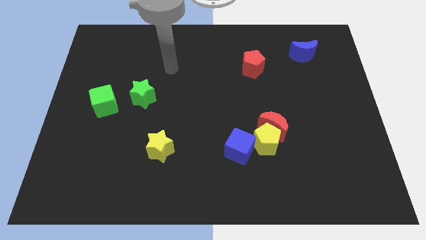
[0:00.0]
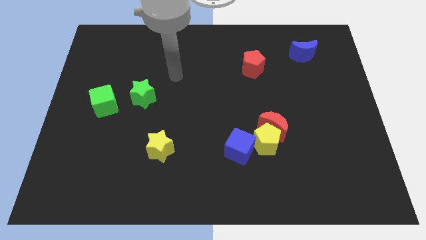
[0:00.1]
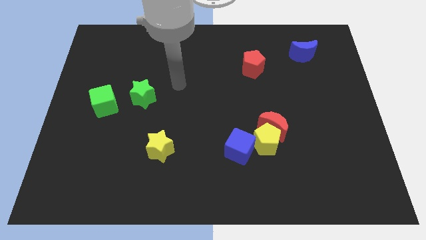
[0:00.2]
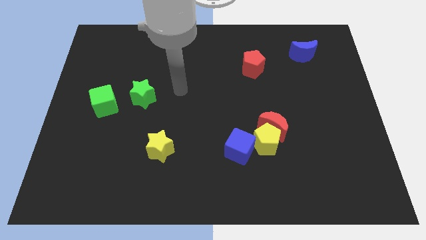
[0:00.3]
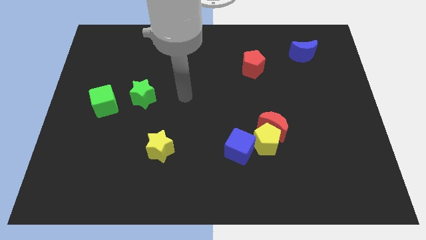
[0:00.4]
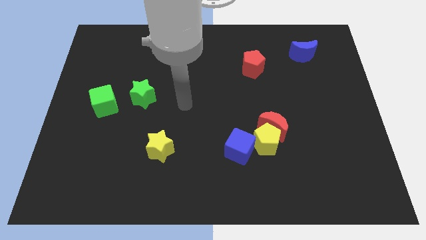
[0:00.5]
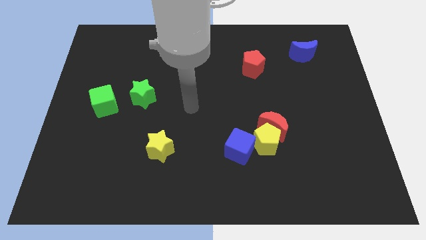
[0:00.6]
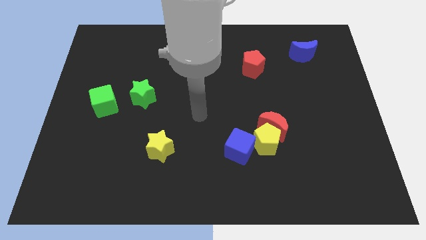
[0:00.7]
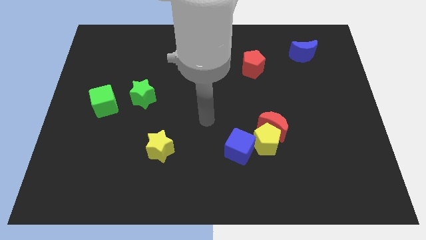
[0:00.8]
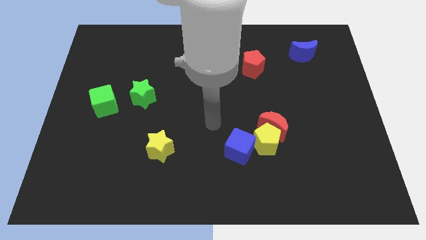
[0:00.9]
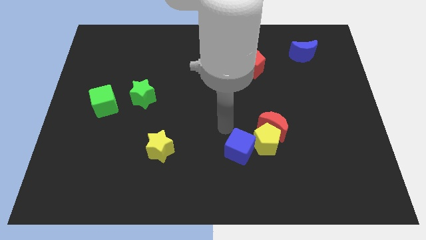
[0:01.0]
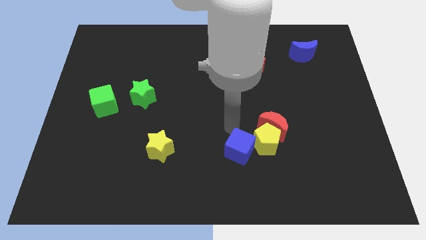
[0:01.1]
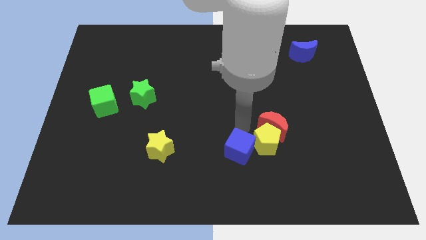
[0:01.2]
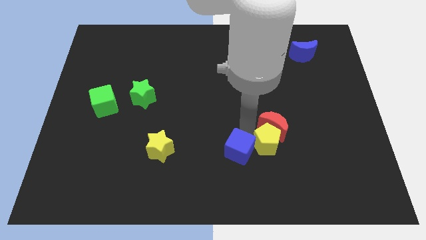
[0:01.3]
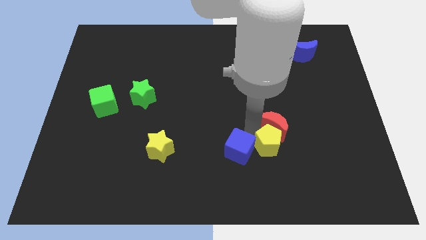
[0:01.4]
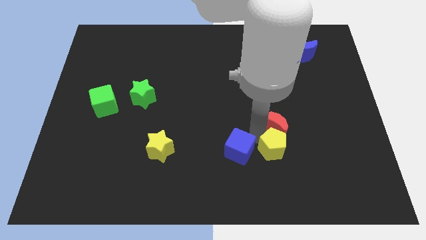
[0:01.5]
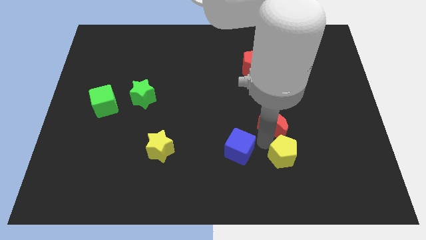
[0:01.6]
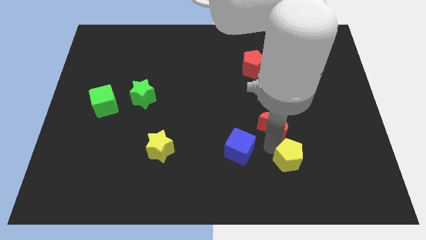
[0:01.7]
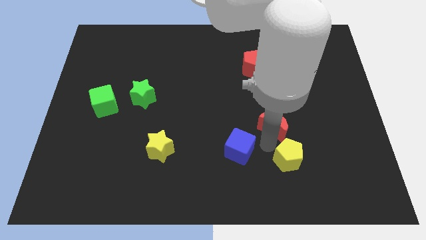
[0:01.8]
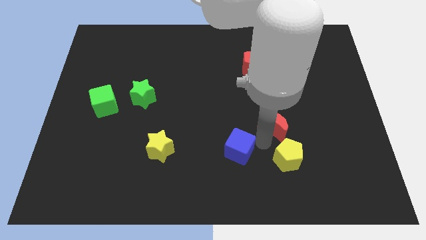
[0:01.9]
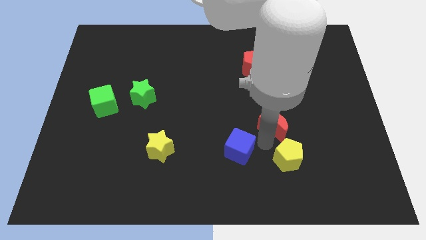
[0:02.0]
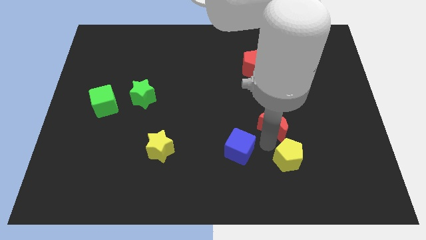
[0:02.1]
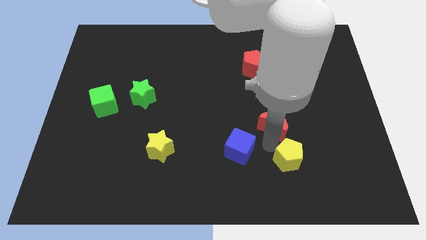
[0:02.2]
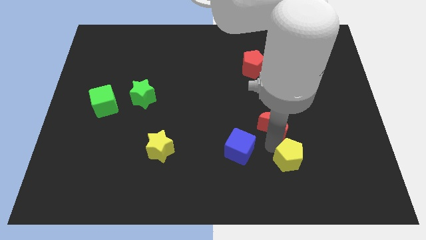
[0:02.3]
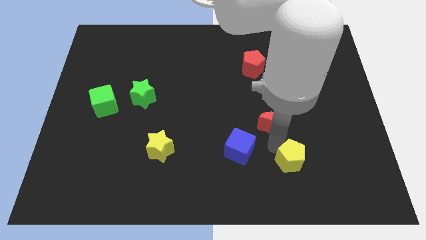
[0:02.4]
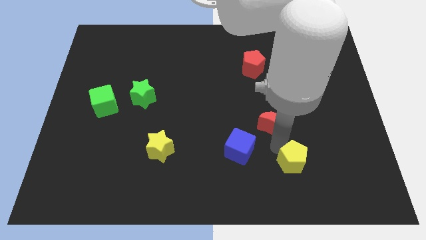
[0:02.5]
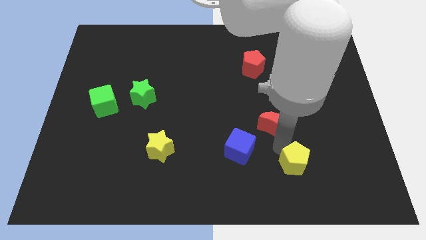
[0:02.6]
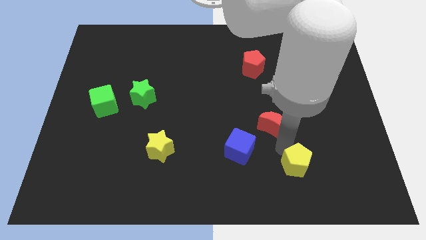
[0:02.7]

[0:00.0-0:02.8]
separate the yellow pentagon from the red moon and blue cube

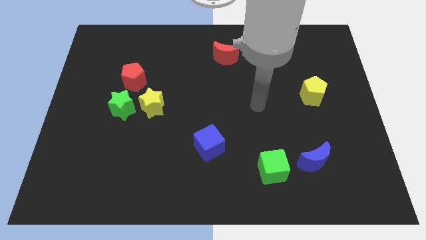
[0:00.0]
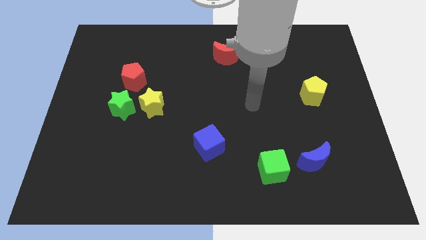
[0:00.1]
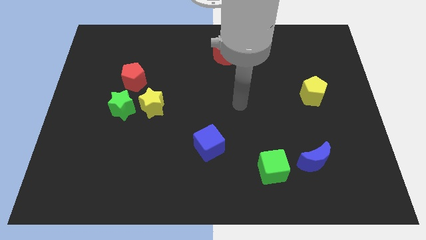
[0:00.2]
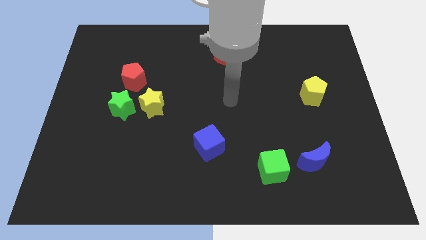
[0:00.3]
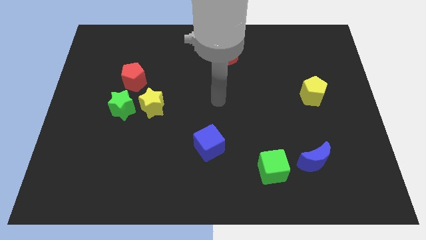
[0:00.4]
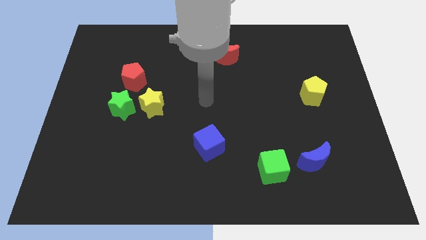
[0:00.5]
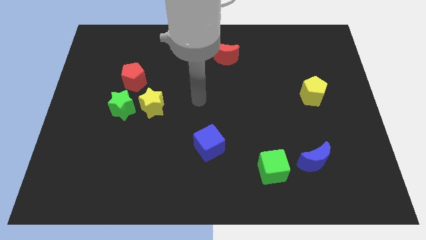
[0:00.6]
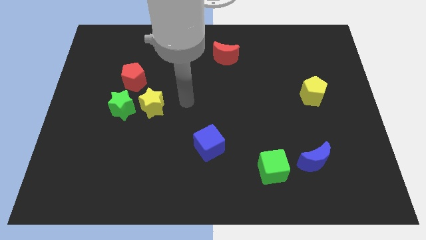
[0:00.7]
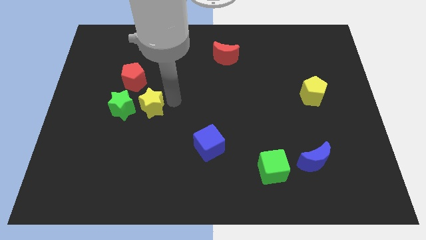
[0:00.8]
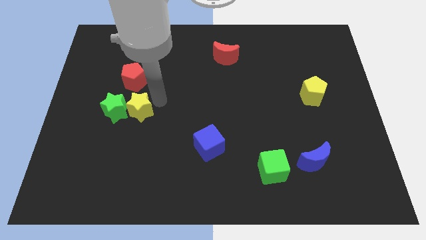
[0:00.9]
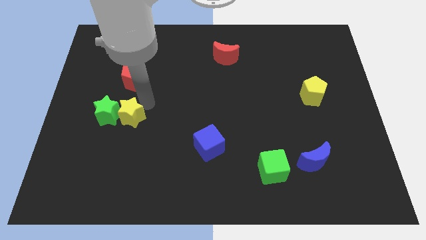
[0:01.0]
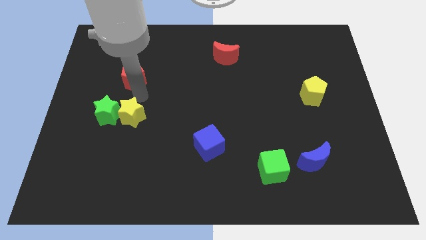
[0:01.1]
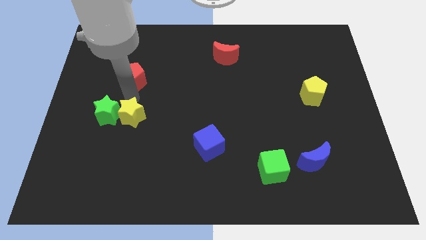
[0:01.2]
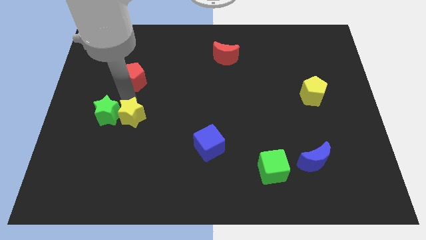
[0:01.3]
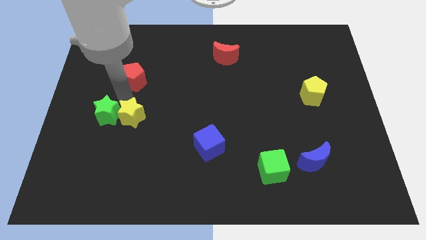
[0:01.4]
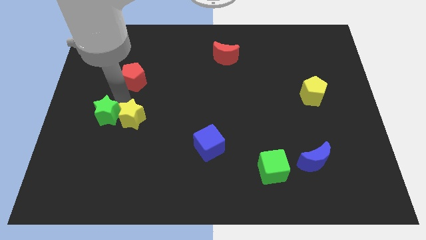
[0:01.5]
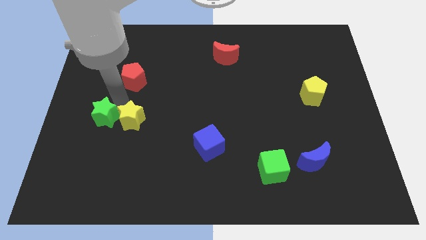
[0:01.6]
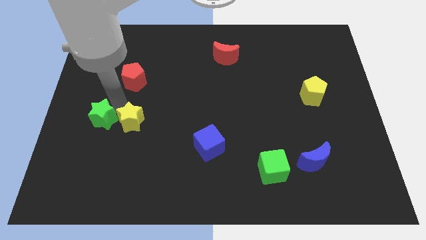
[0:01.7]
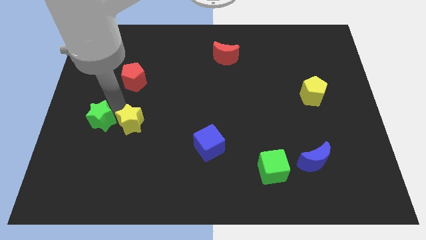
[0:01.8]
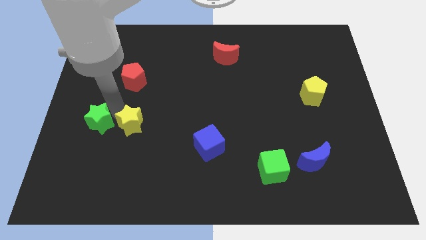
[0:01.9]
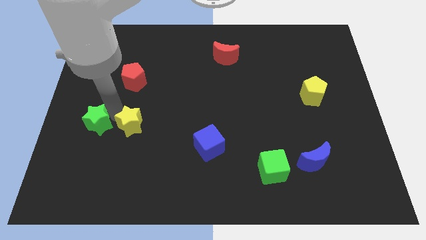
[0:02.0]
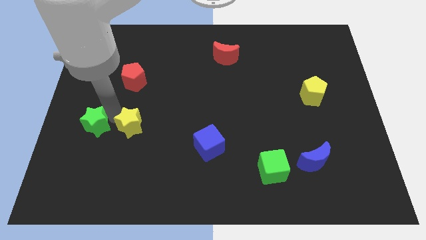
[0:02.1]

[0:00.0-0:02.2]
pull the green star apart from the yellow star and red pentagon

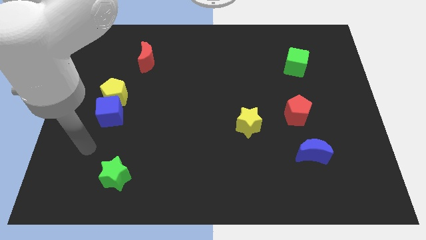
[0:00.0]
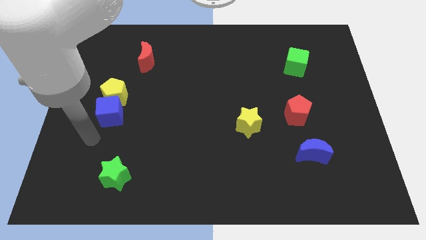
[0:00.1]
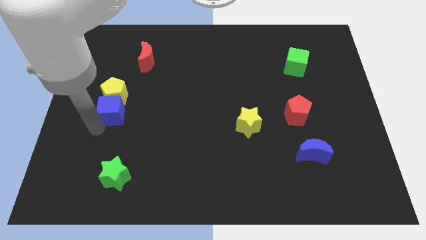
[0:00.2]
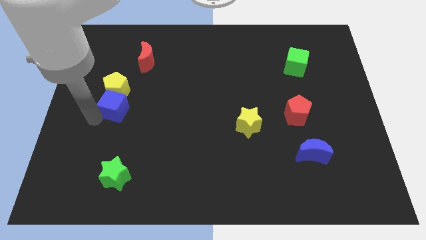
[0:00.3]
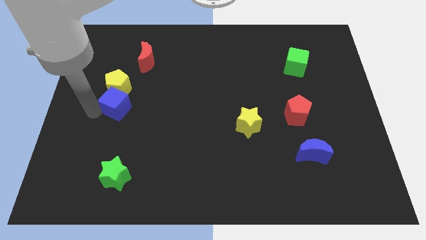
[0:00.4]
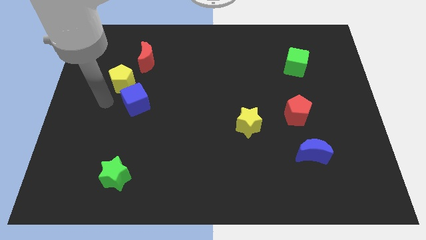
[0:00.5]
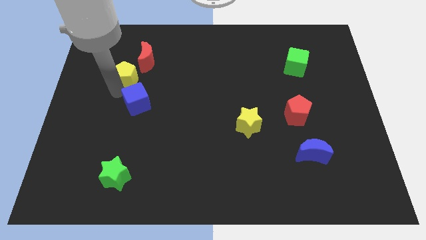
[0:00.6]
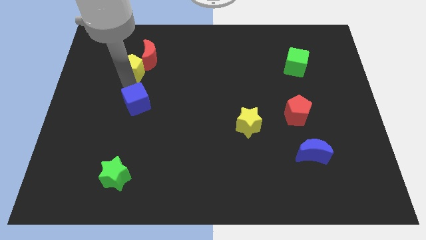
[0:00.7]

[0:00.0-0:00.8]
move the blue cube away from the yellow pentagon

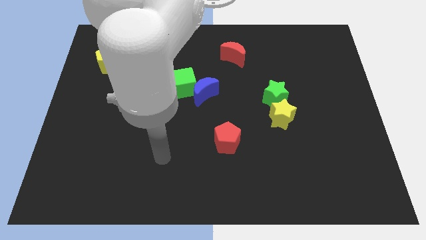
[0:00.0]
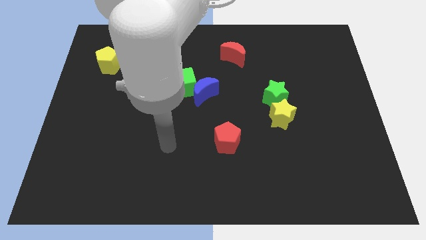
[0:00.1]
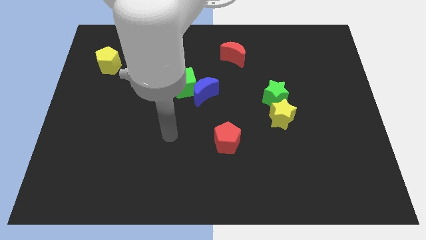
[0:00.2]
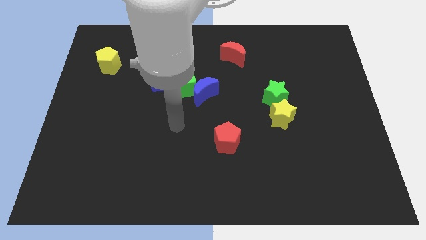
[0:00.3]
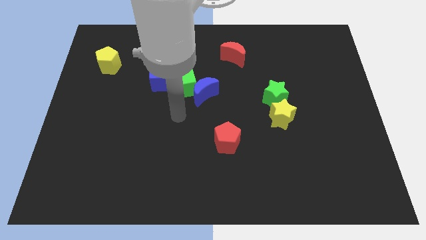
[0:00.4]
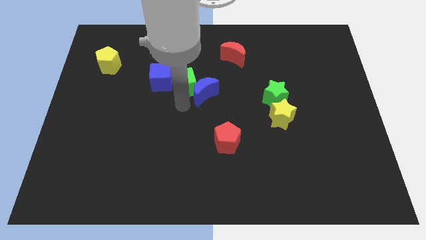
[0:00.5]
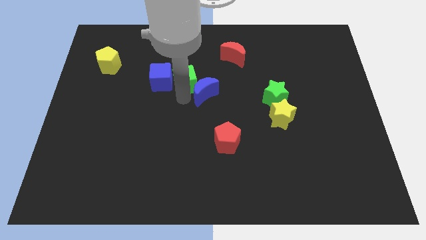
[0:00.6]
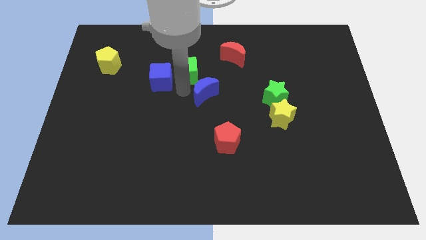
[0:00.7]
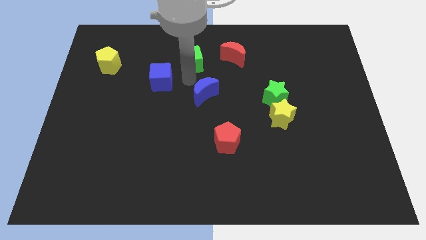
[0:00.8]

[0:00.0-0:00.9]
separate the blue moon from the green cube

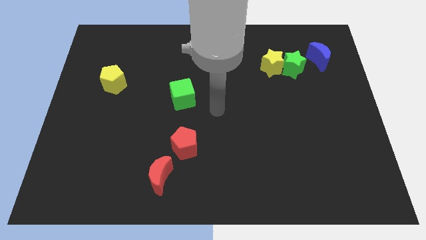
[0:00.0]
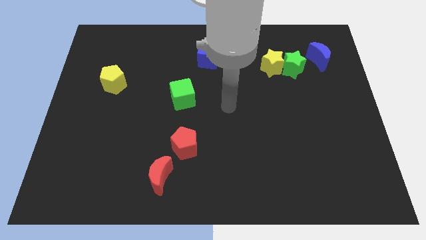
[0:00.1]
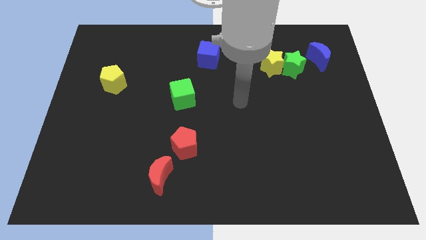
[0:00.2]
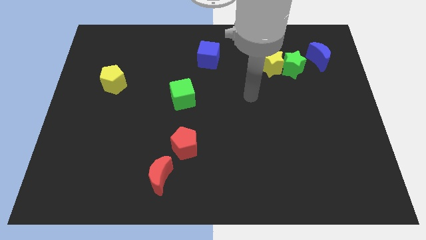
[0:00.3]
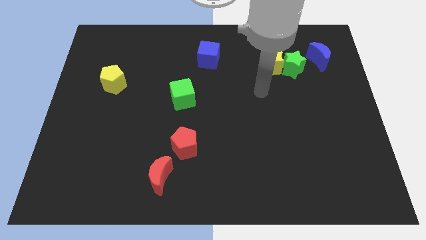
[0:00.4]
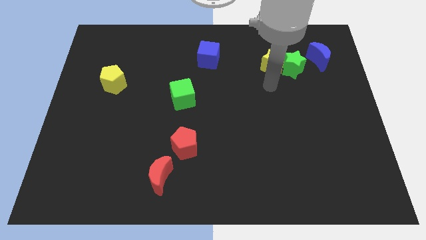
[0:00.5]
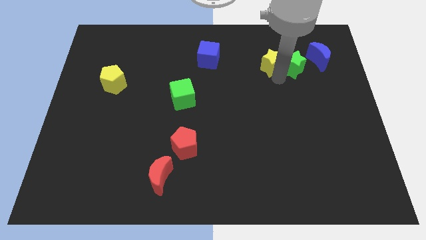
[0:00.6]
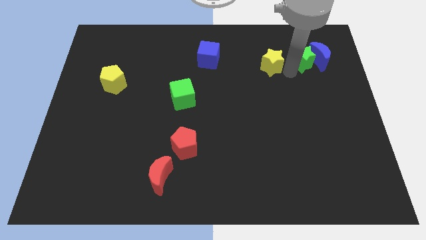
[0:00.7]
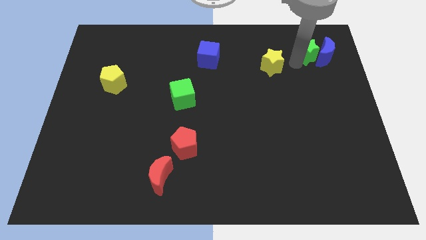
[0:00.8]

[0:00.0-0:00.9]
separate the yellow star from the green star

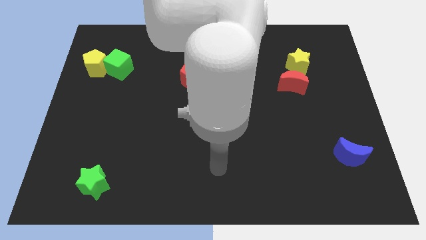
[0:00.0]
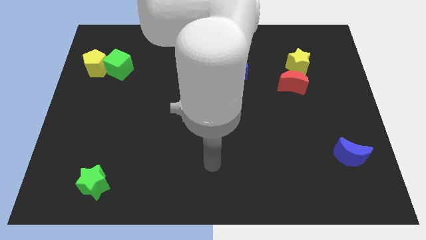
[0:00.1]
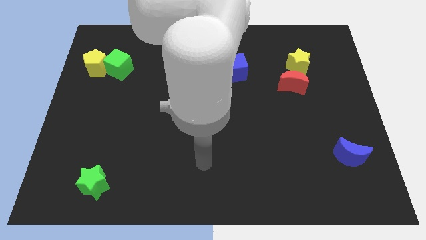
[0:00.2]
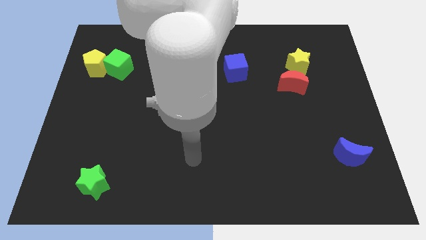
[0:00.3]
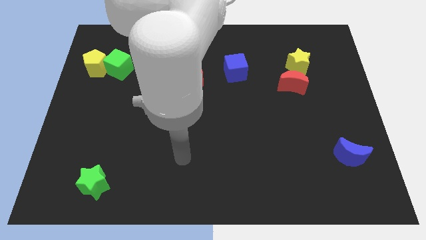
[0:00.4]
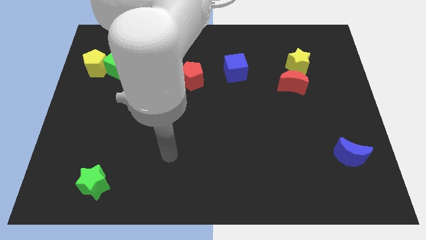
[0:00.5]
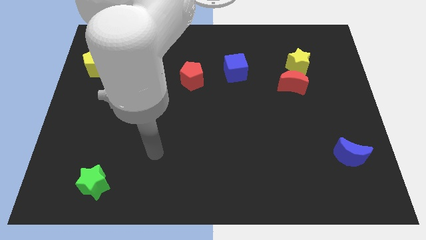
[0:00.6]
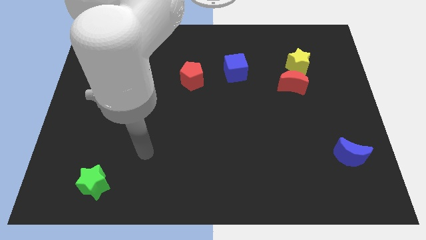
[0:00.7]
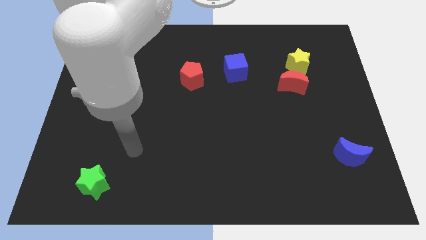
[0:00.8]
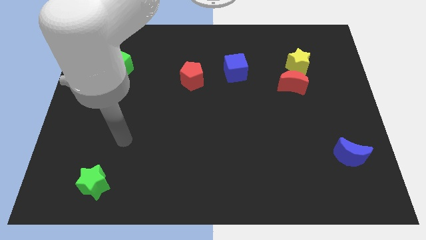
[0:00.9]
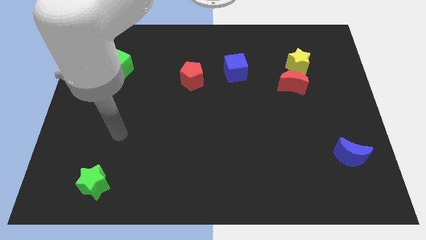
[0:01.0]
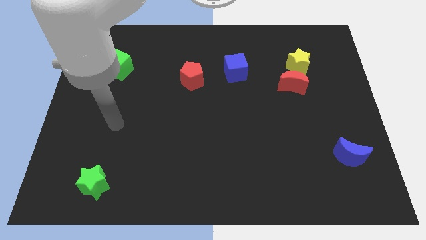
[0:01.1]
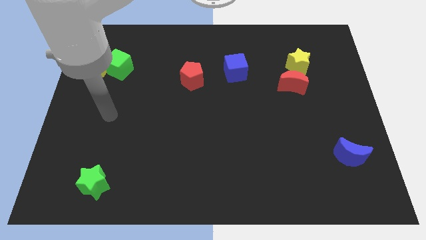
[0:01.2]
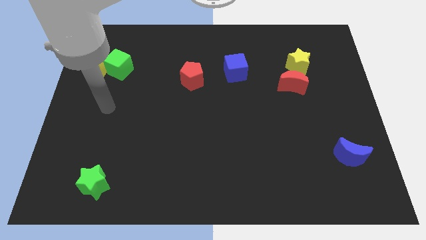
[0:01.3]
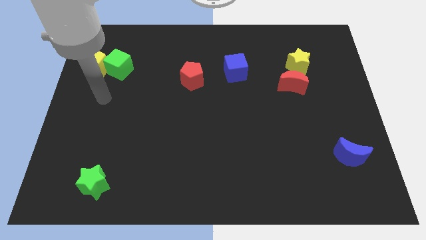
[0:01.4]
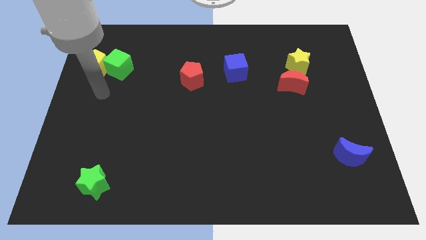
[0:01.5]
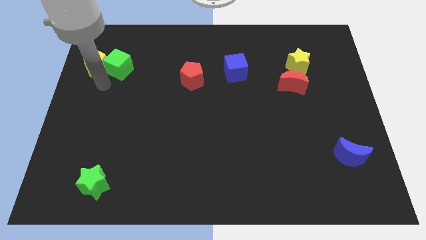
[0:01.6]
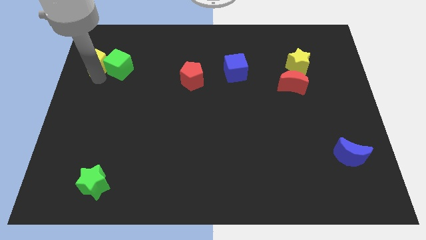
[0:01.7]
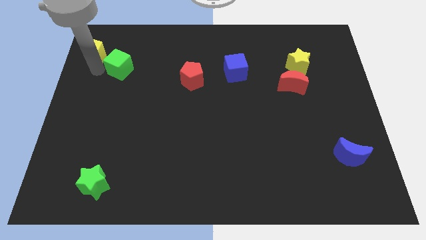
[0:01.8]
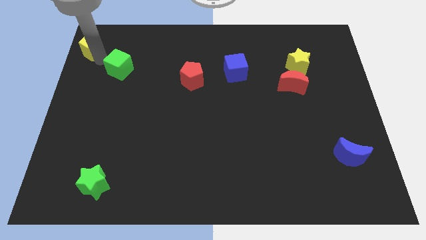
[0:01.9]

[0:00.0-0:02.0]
pull the green cube apart from the yellow pentagon
